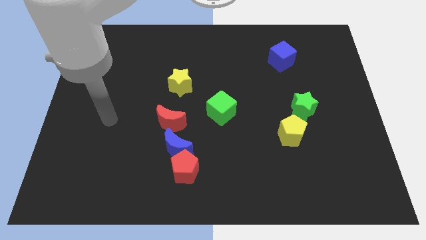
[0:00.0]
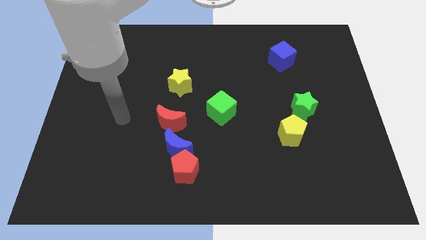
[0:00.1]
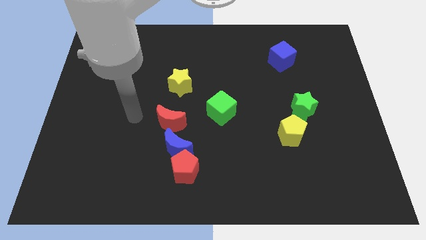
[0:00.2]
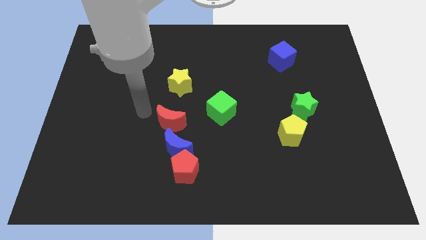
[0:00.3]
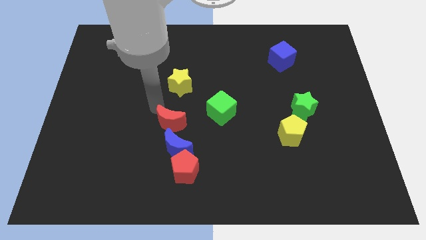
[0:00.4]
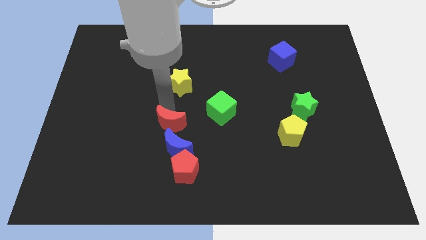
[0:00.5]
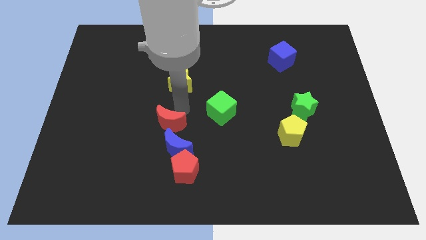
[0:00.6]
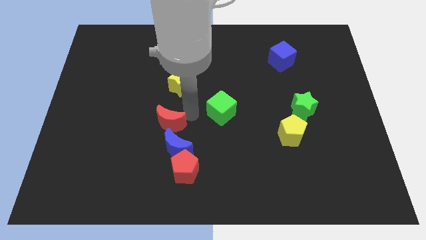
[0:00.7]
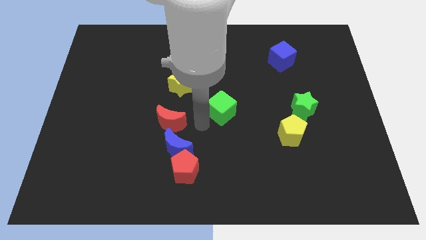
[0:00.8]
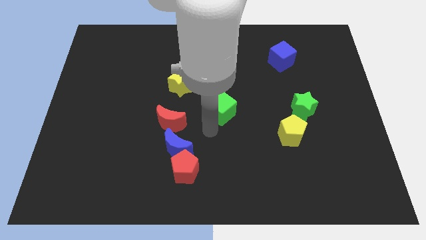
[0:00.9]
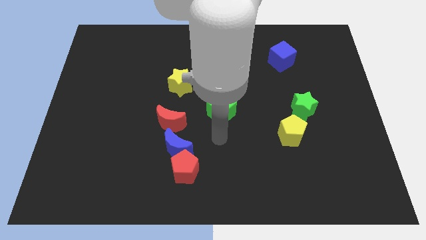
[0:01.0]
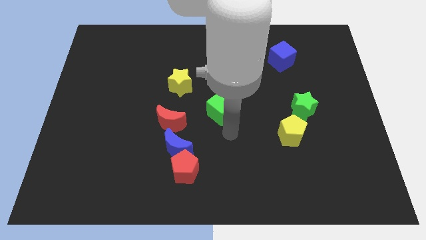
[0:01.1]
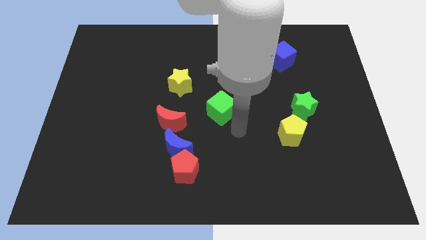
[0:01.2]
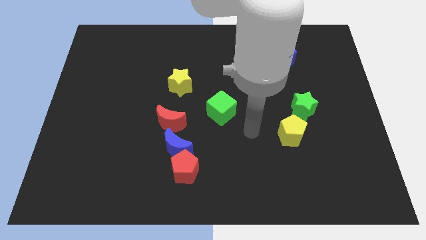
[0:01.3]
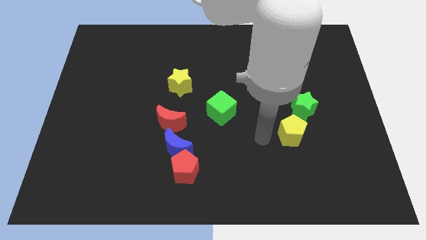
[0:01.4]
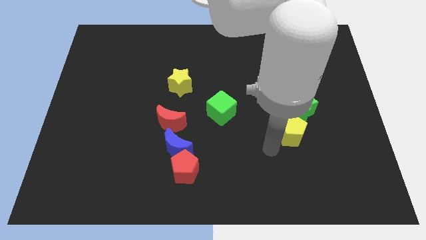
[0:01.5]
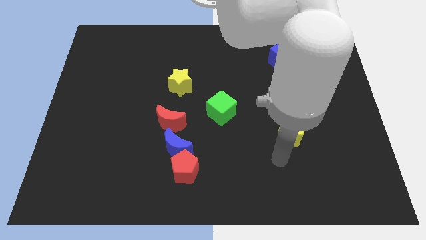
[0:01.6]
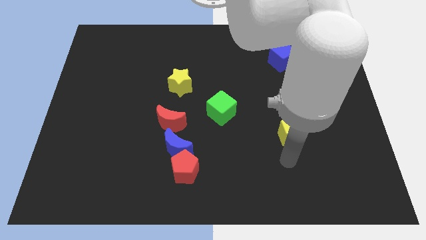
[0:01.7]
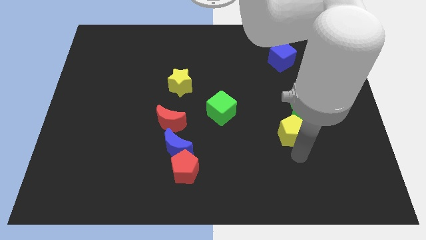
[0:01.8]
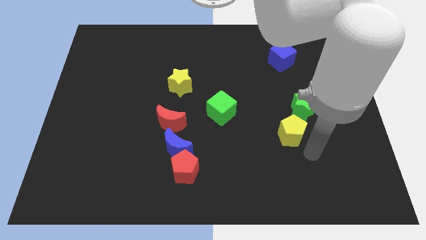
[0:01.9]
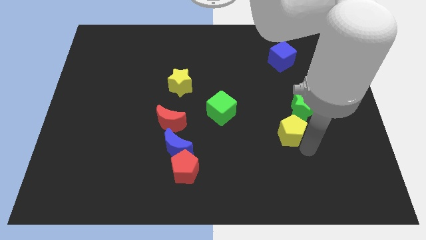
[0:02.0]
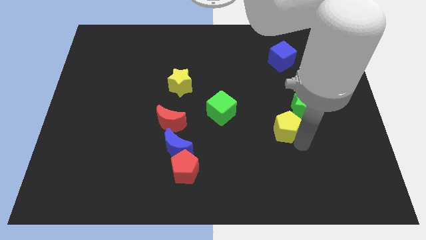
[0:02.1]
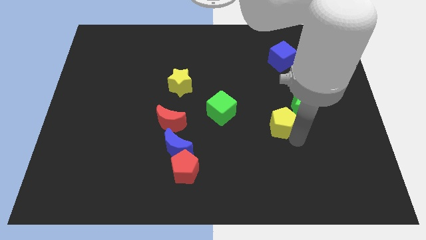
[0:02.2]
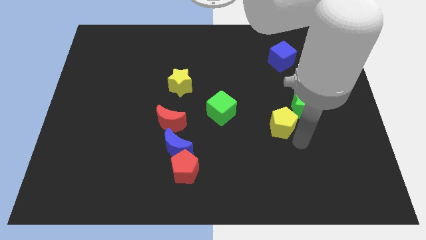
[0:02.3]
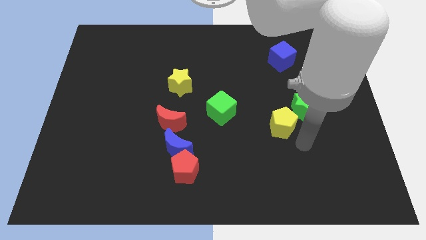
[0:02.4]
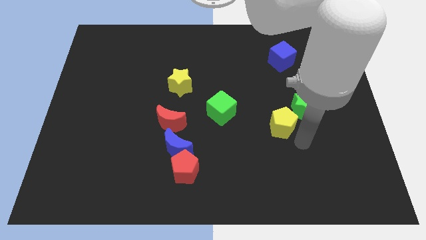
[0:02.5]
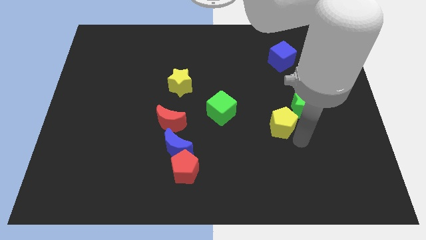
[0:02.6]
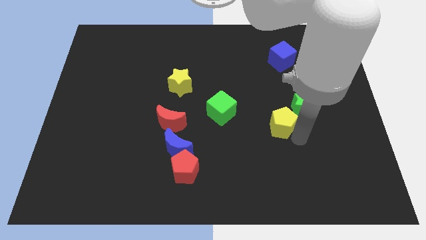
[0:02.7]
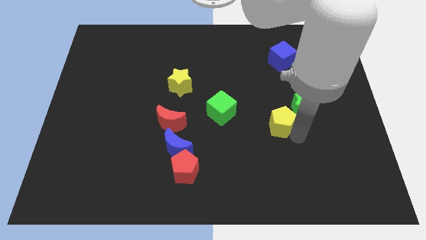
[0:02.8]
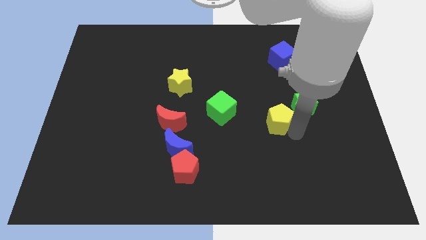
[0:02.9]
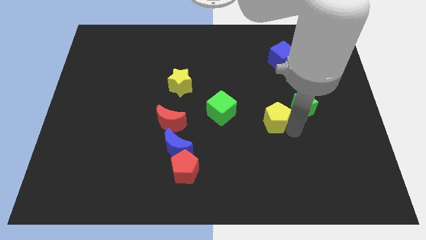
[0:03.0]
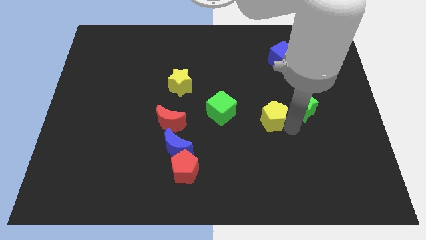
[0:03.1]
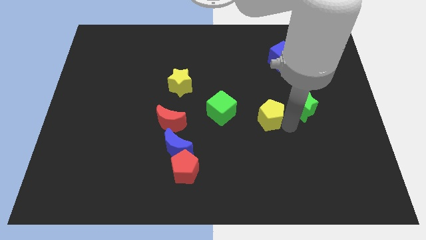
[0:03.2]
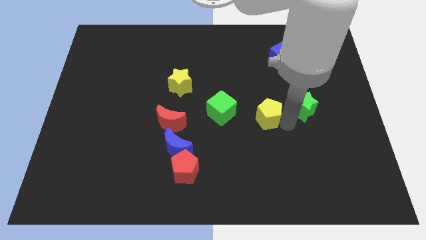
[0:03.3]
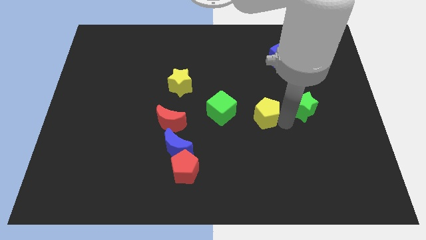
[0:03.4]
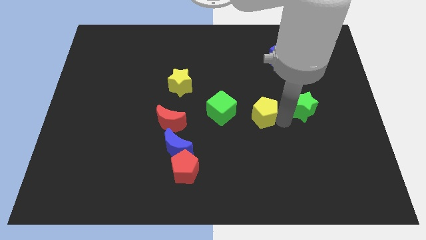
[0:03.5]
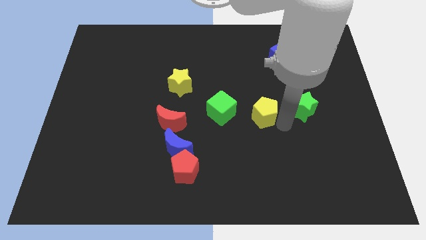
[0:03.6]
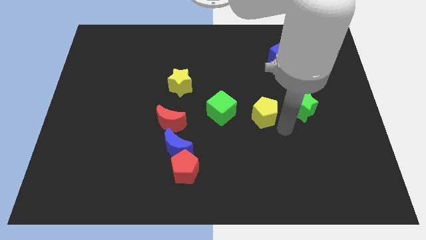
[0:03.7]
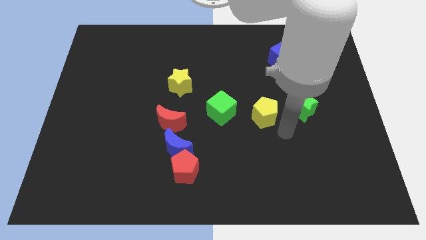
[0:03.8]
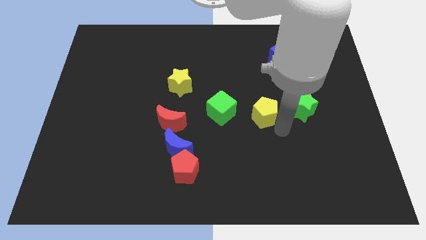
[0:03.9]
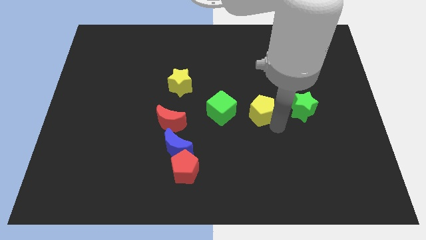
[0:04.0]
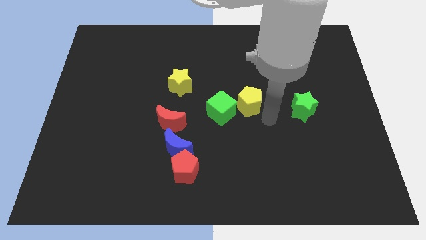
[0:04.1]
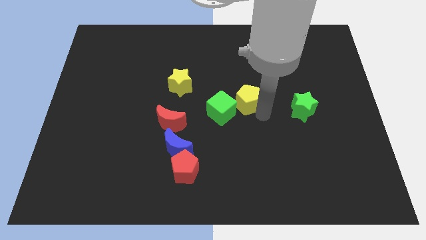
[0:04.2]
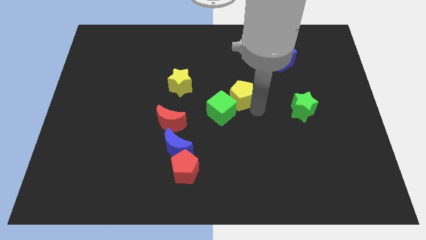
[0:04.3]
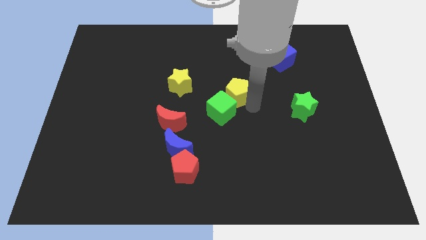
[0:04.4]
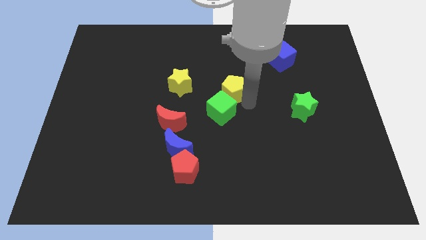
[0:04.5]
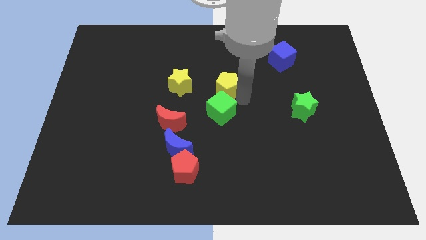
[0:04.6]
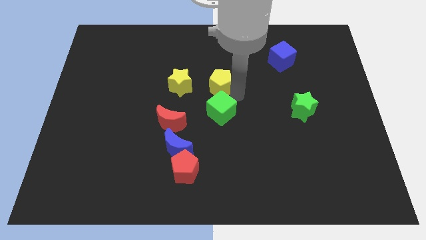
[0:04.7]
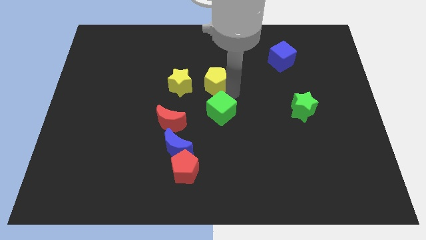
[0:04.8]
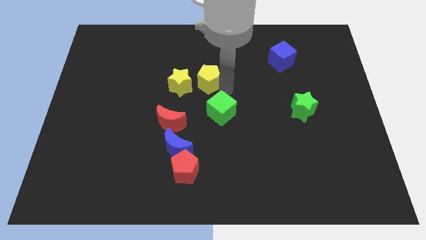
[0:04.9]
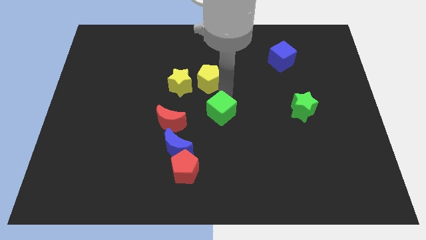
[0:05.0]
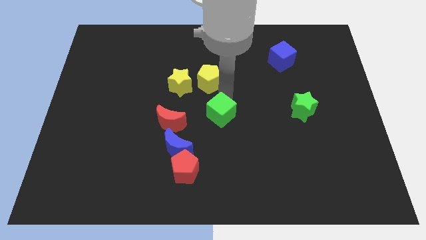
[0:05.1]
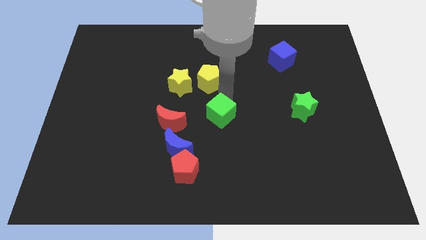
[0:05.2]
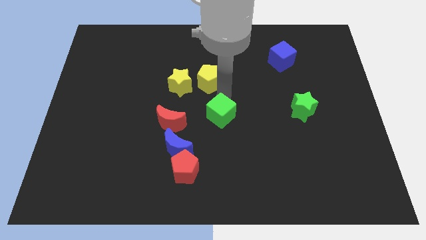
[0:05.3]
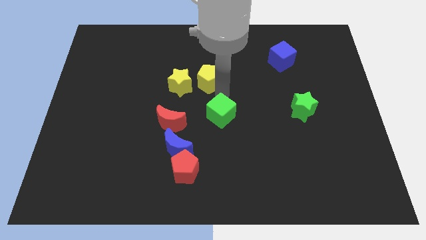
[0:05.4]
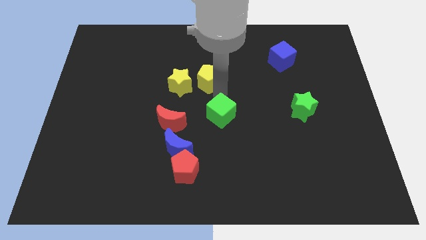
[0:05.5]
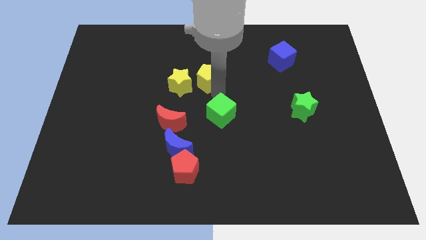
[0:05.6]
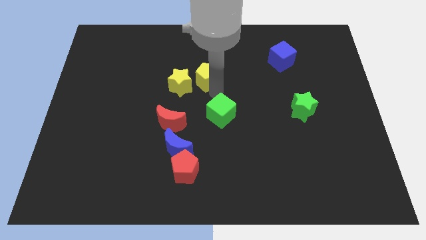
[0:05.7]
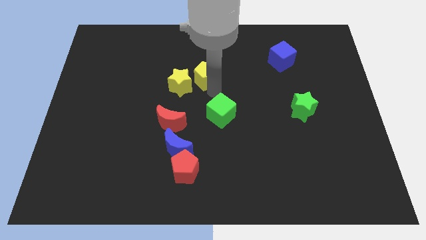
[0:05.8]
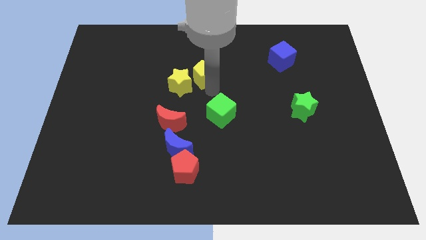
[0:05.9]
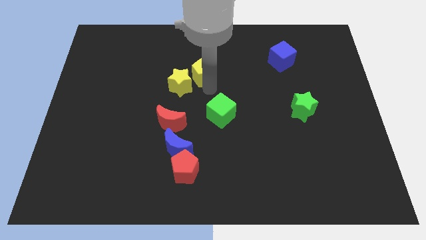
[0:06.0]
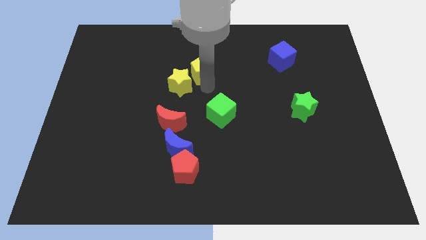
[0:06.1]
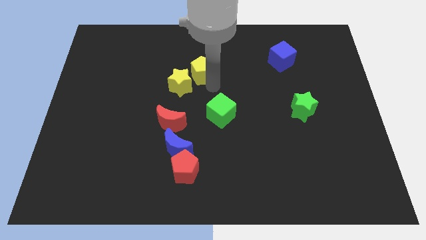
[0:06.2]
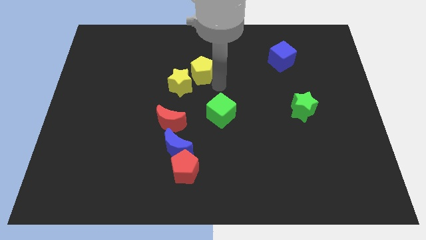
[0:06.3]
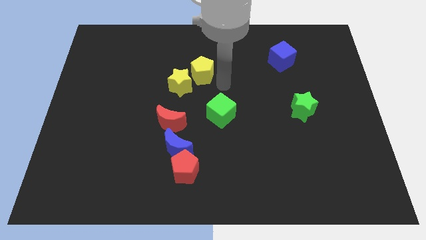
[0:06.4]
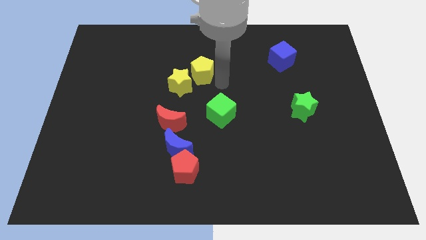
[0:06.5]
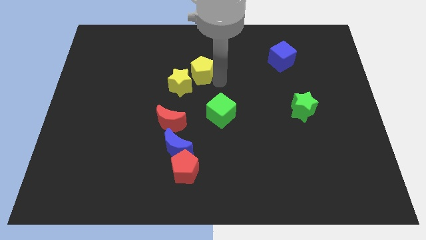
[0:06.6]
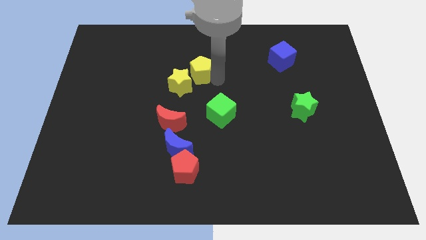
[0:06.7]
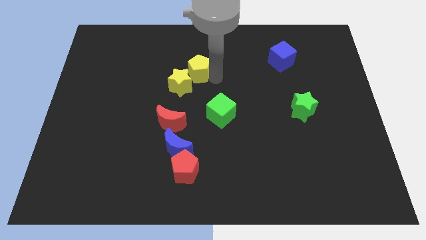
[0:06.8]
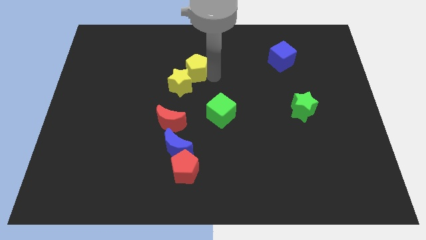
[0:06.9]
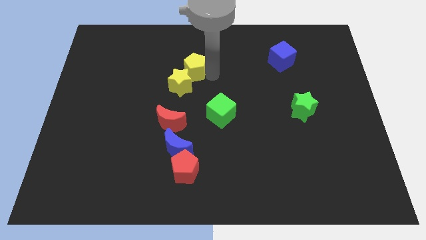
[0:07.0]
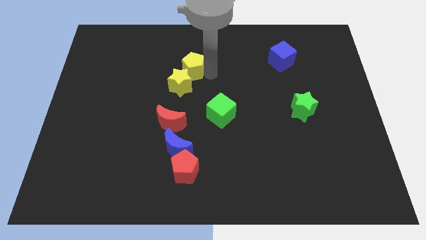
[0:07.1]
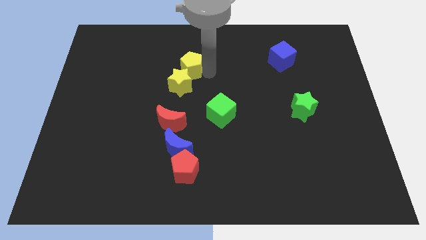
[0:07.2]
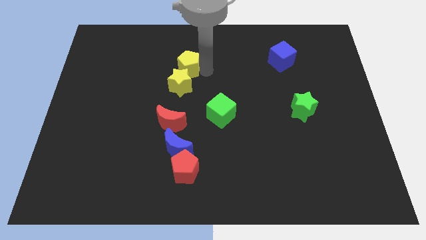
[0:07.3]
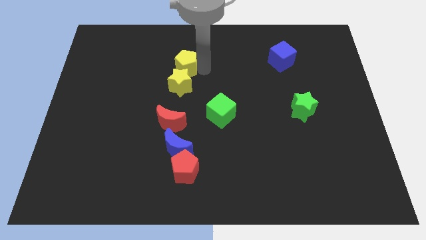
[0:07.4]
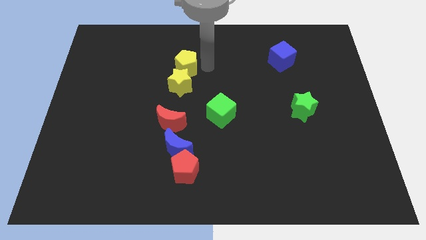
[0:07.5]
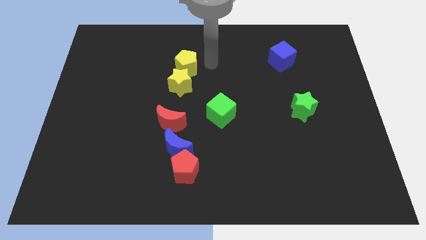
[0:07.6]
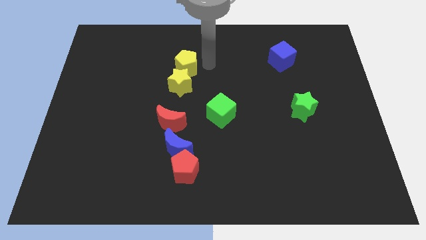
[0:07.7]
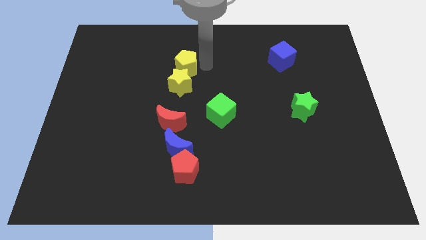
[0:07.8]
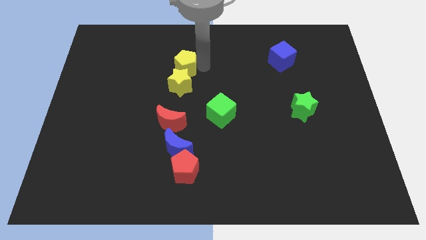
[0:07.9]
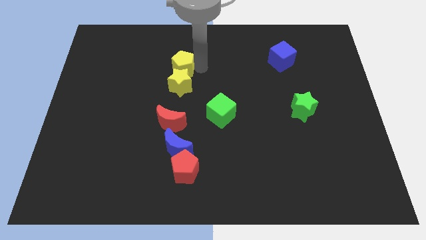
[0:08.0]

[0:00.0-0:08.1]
slide the yellow pentagon to the top left side of the yellow star
